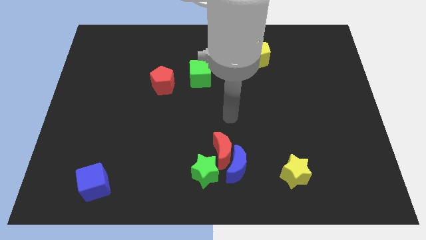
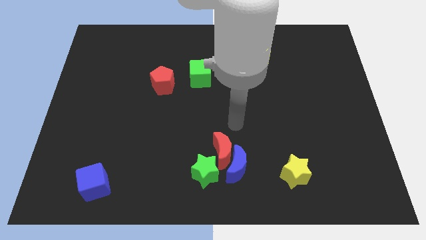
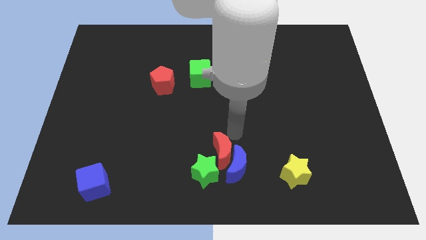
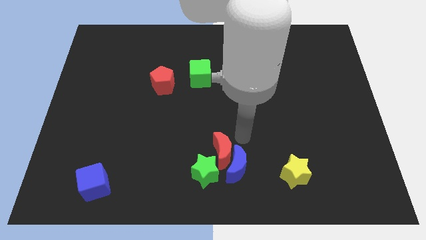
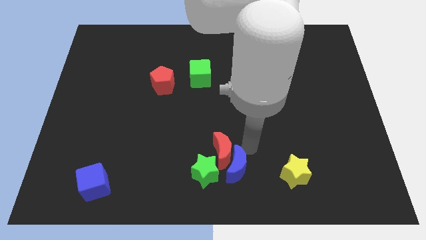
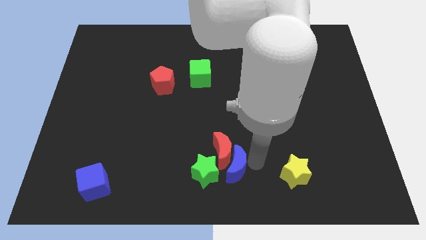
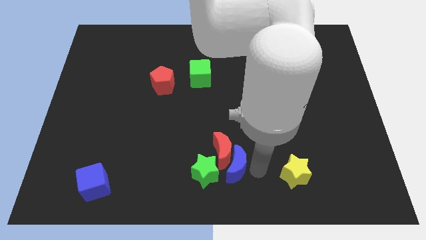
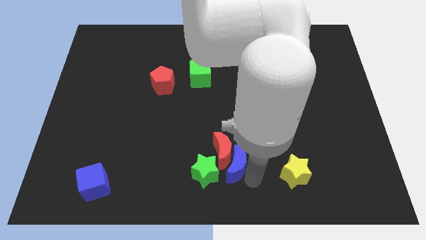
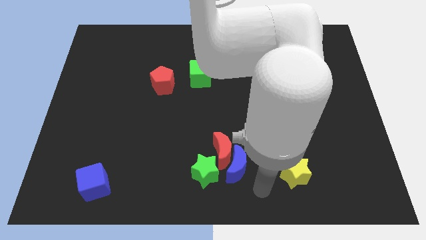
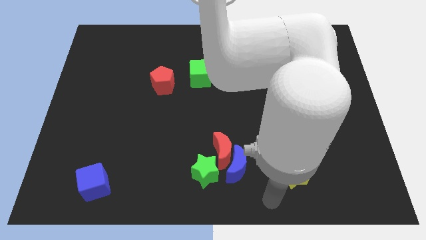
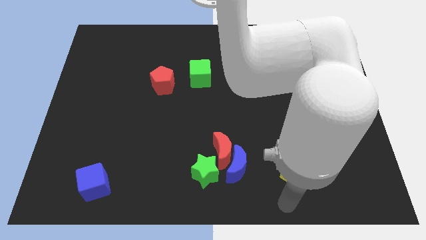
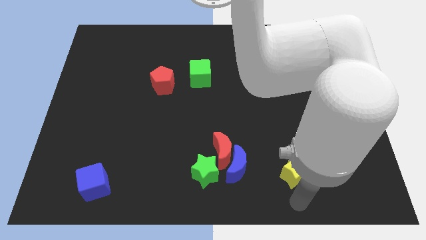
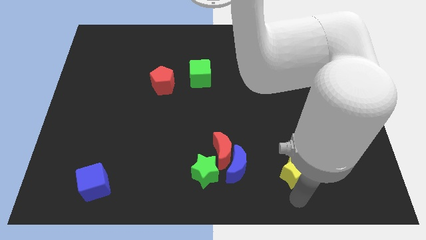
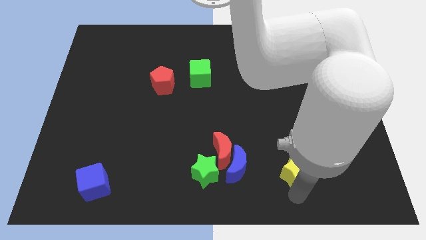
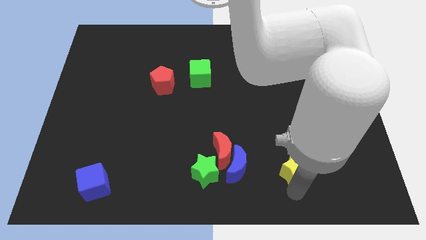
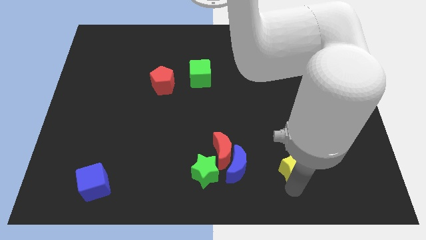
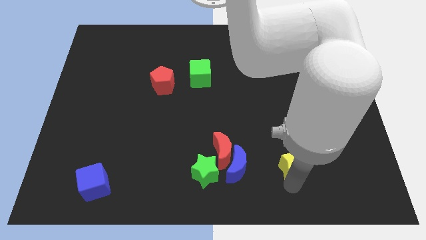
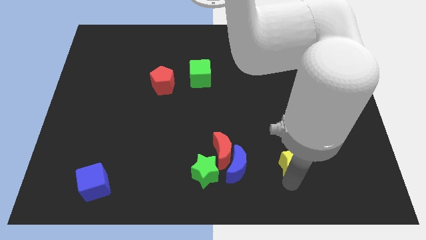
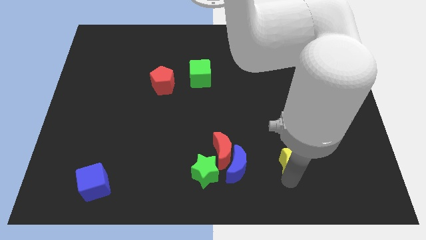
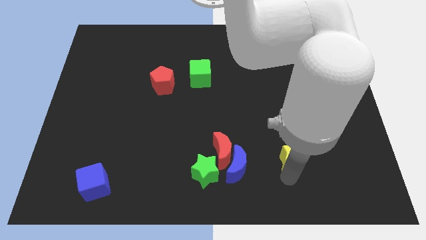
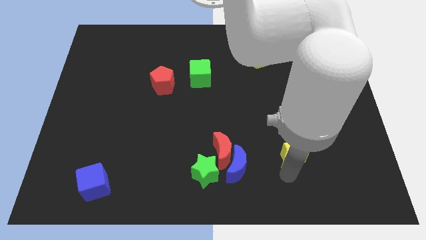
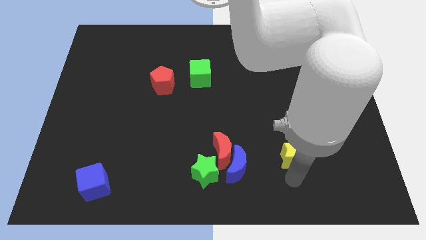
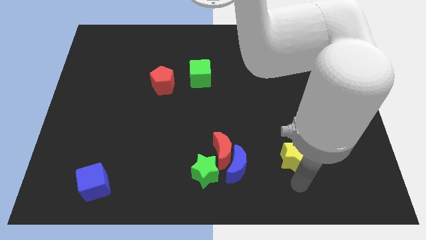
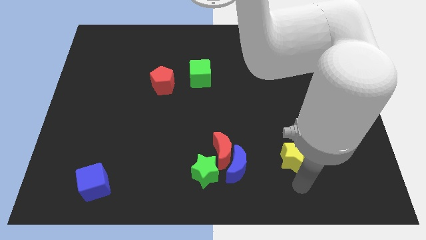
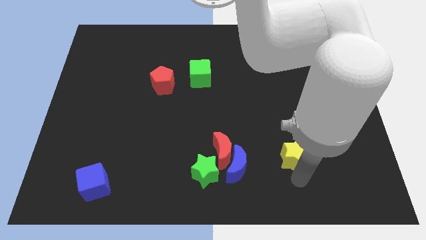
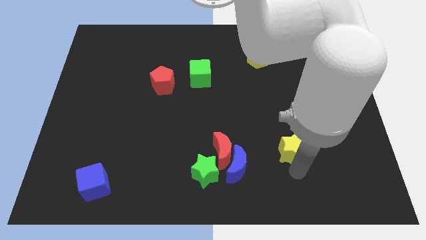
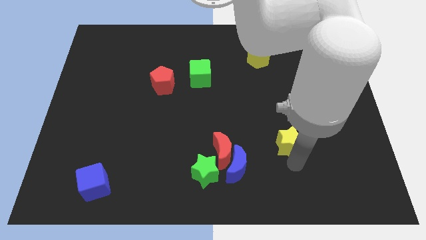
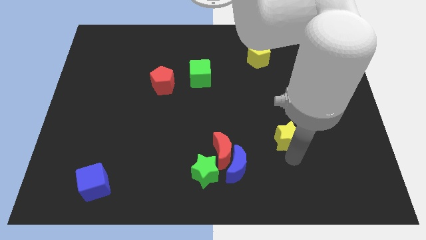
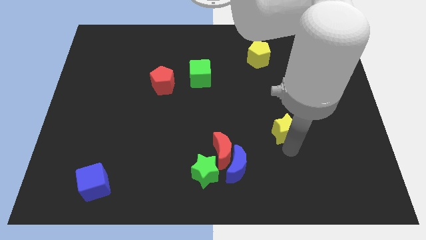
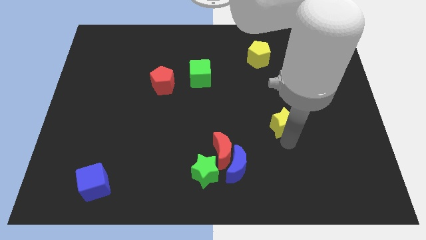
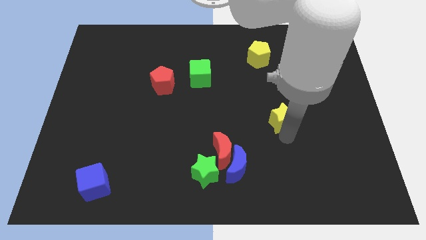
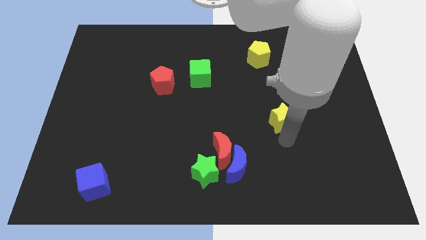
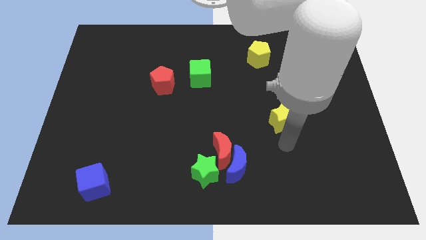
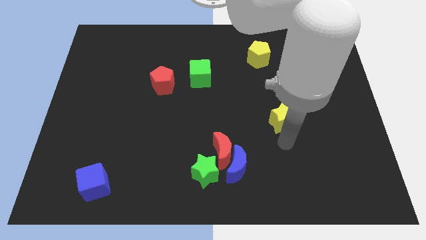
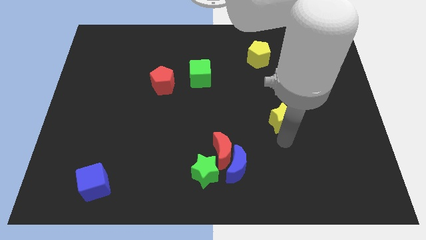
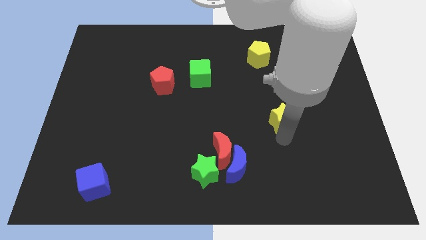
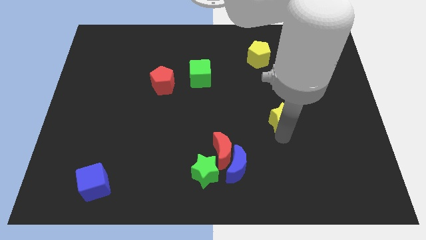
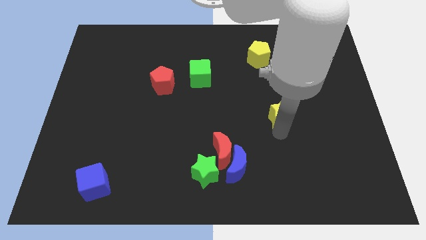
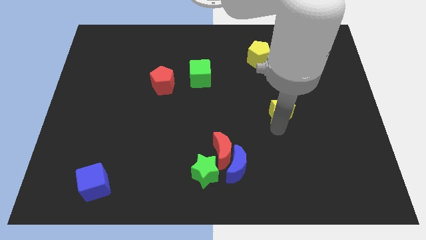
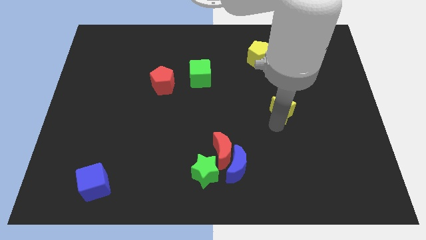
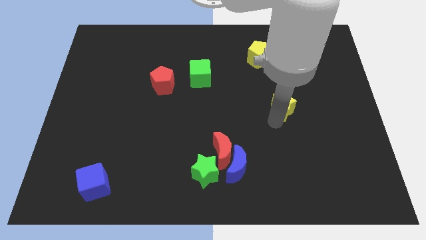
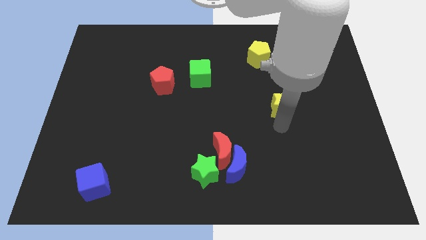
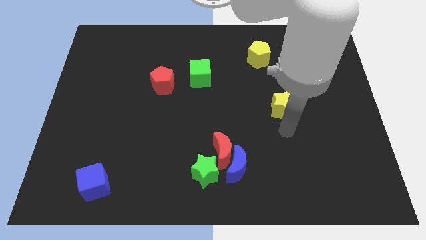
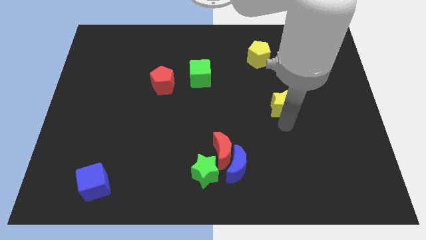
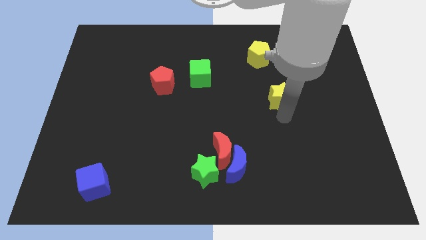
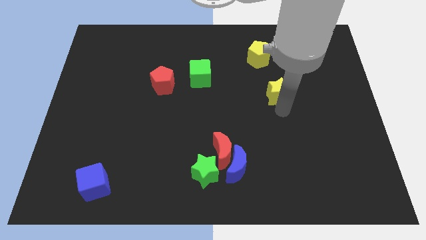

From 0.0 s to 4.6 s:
push the yellow star up

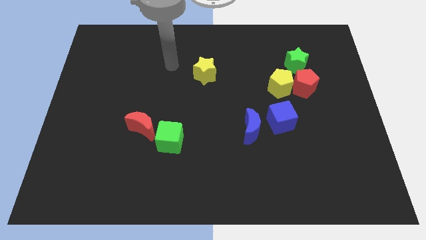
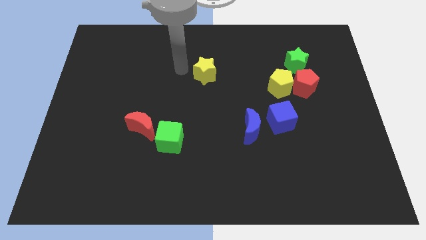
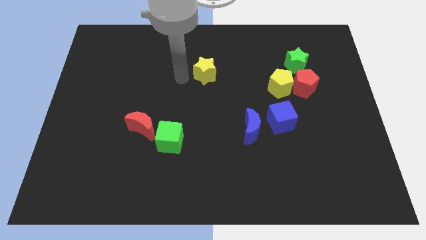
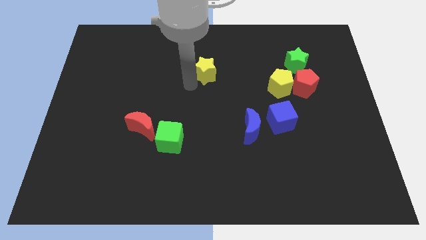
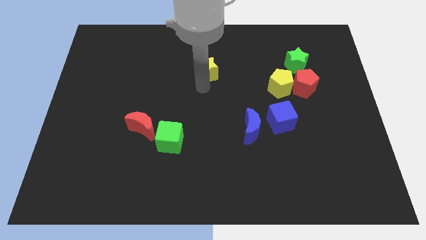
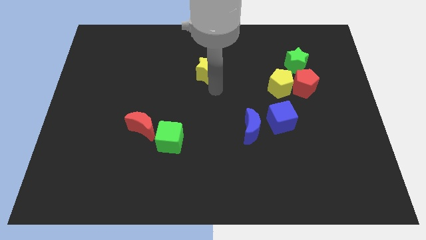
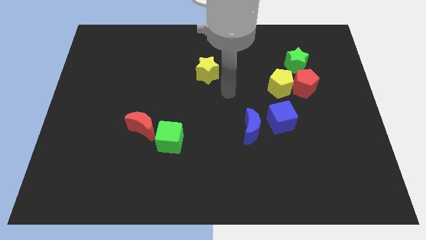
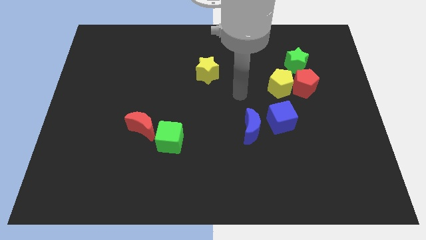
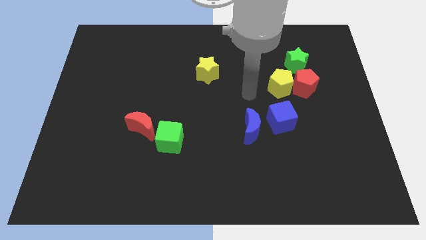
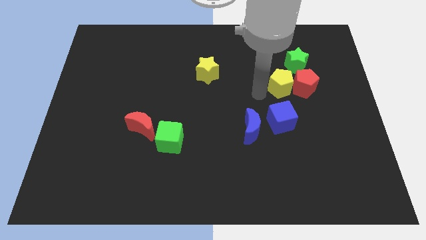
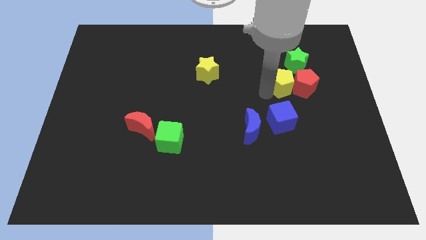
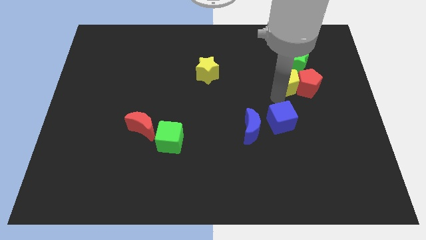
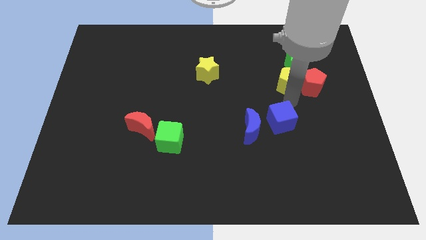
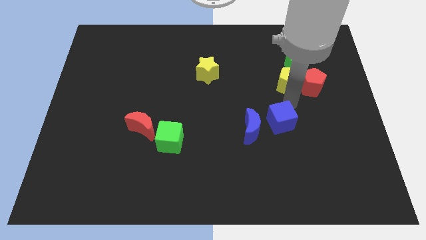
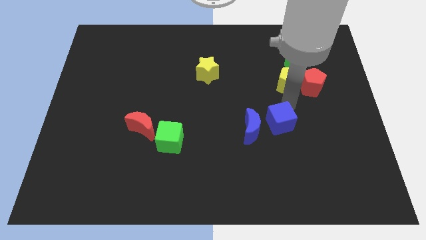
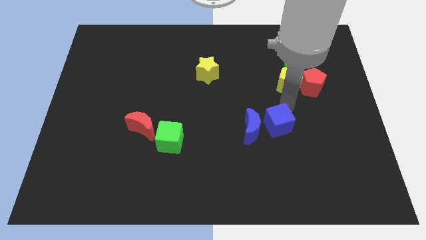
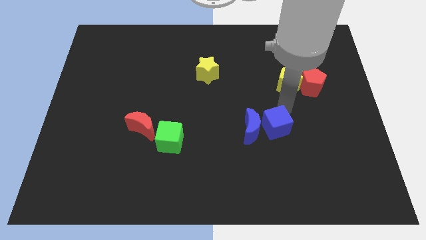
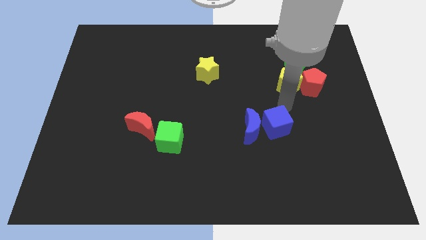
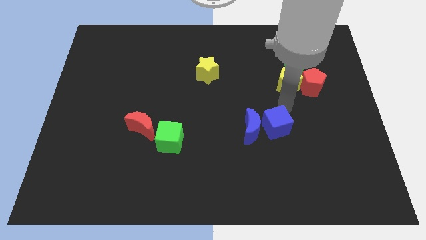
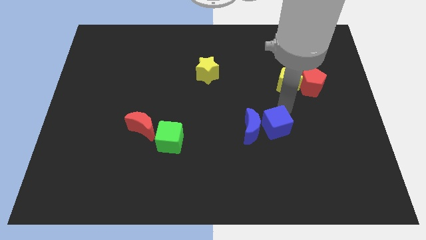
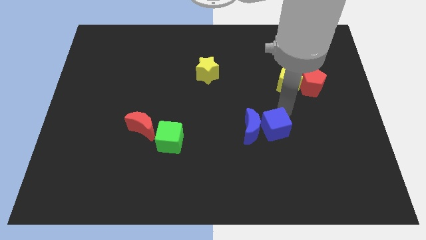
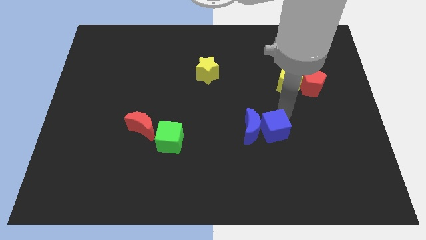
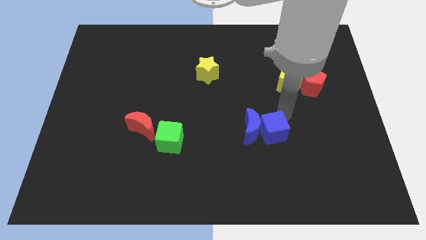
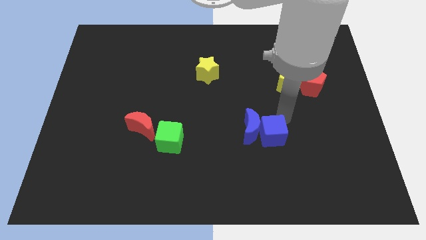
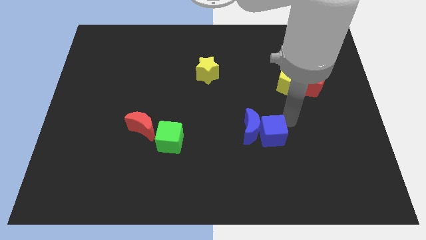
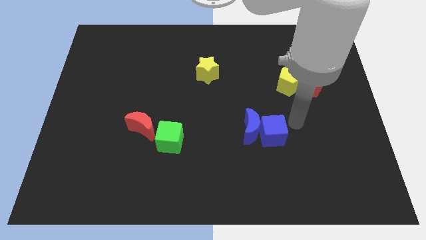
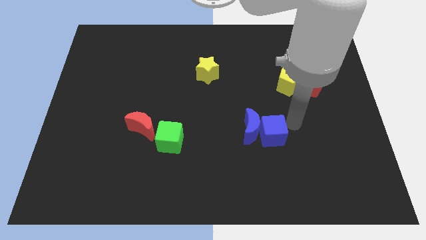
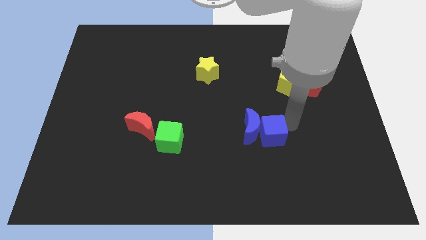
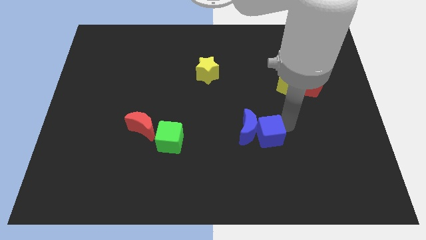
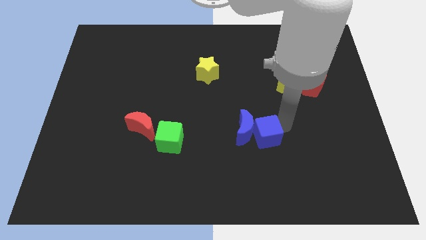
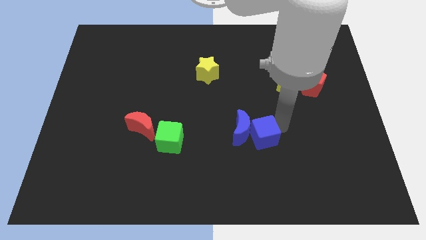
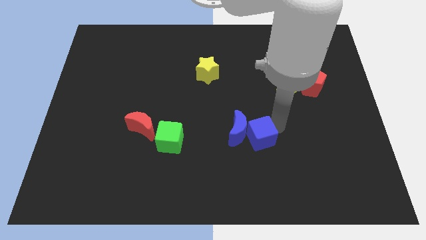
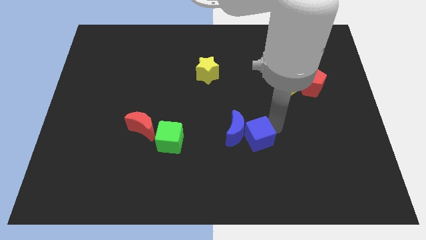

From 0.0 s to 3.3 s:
move the blue cube somewhat downwards and left diagonally

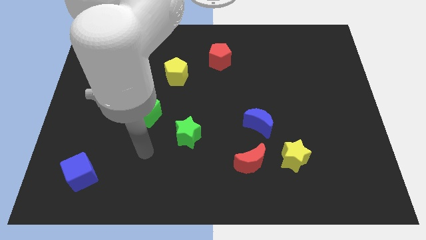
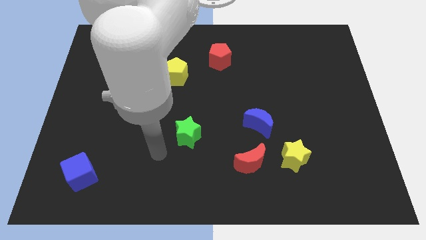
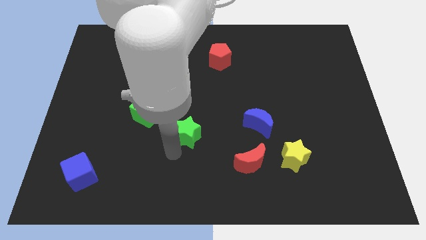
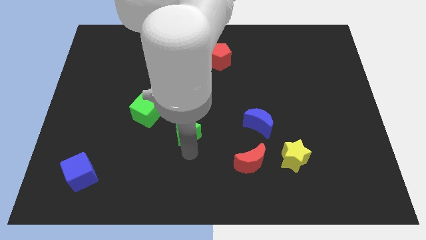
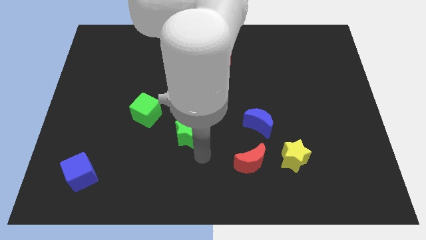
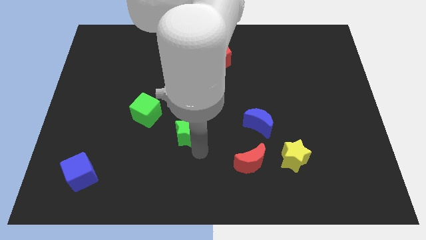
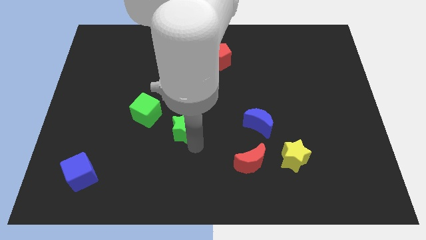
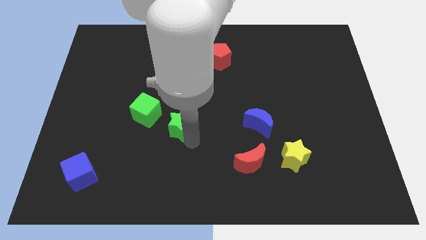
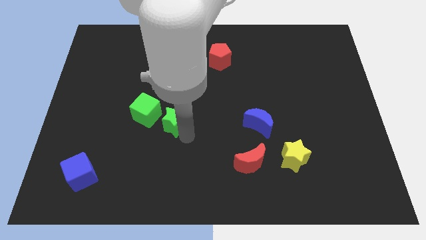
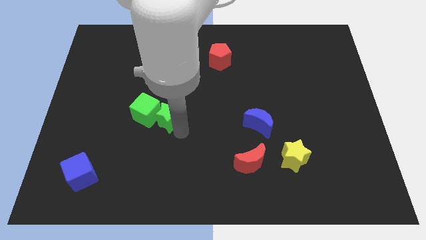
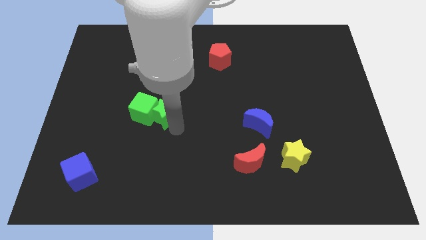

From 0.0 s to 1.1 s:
push the green star a little bit diagonally up and to the left
